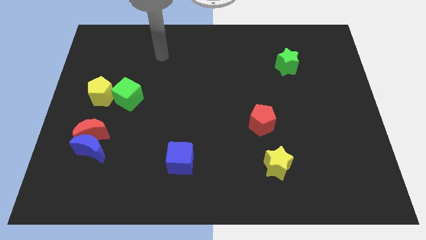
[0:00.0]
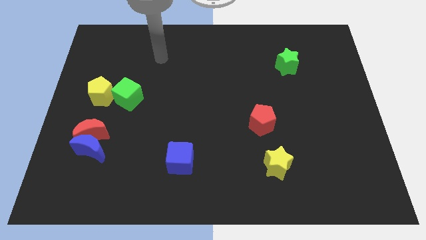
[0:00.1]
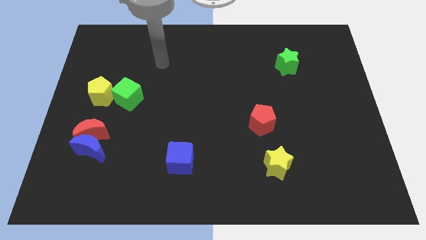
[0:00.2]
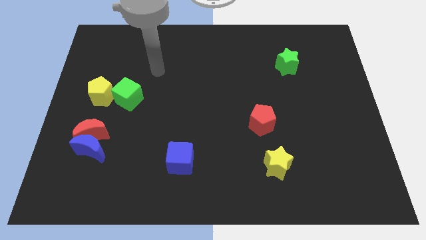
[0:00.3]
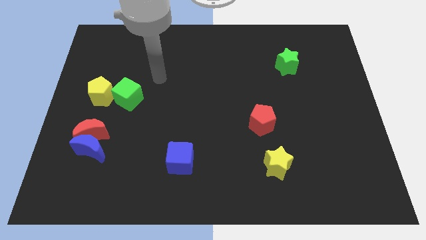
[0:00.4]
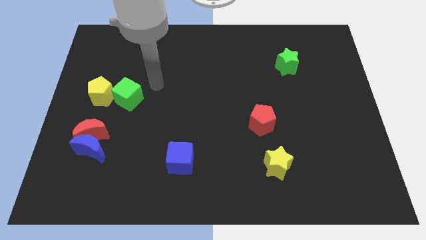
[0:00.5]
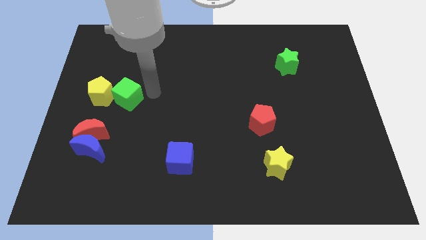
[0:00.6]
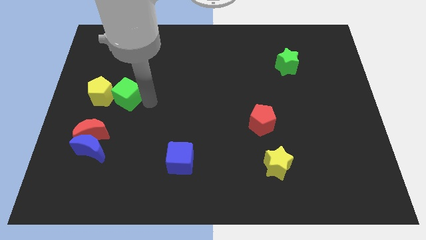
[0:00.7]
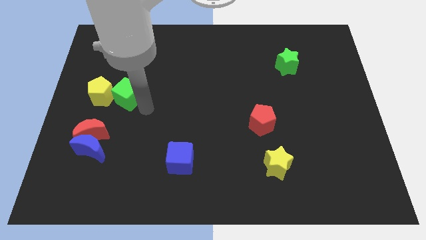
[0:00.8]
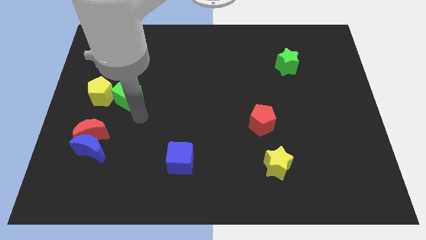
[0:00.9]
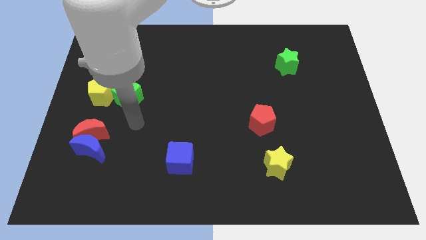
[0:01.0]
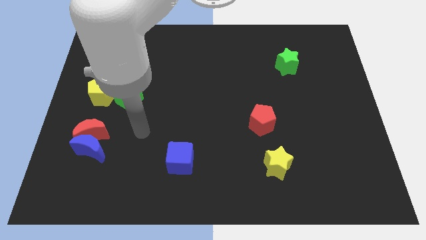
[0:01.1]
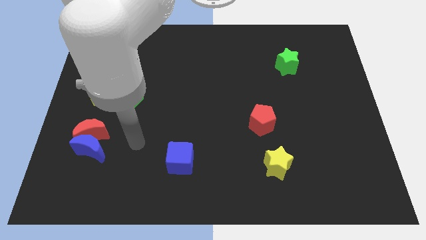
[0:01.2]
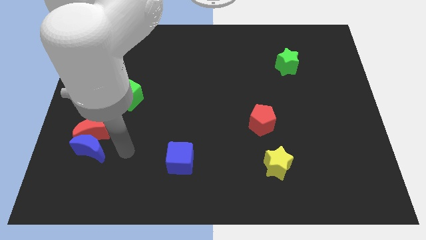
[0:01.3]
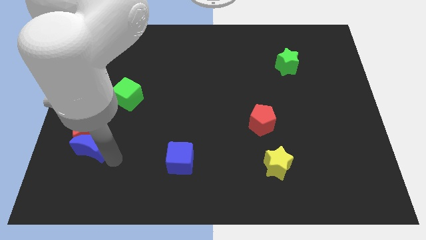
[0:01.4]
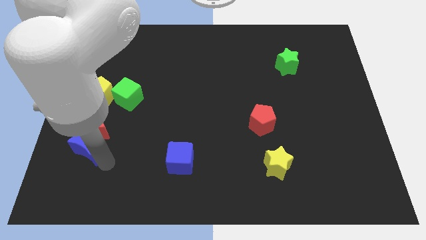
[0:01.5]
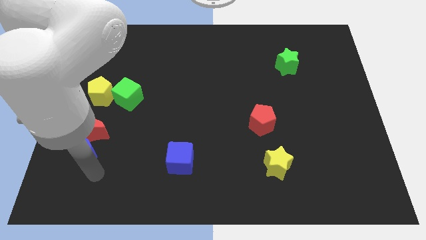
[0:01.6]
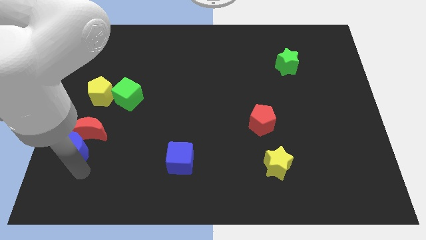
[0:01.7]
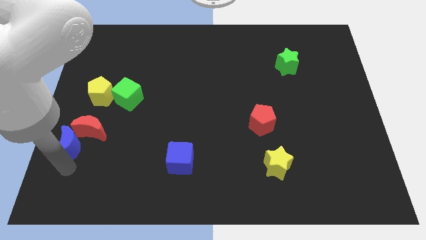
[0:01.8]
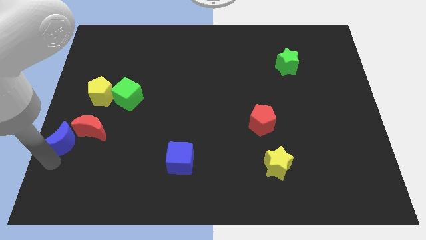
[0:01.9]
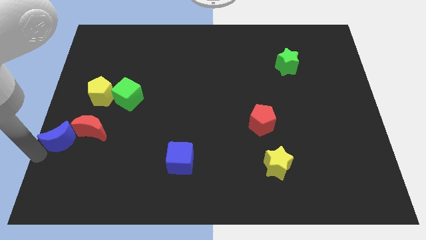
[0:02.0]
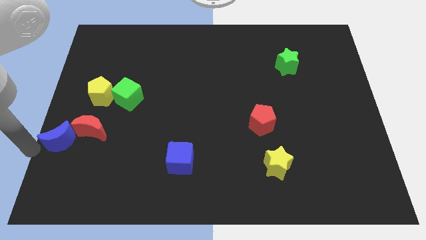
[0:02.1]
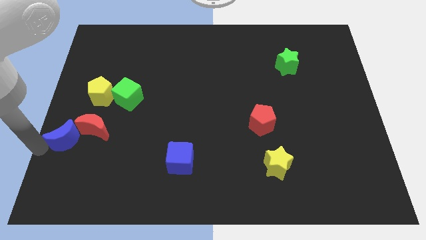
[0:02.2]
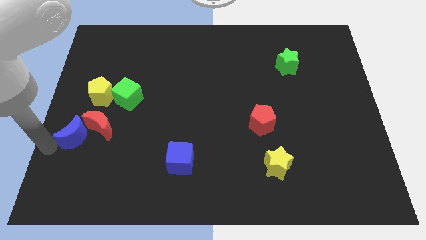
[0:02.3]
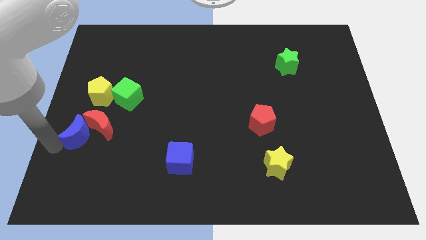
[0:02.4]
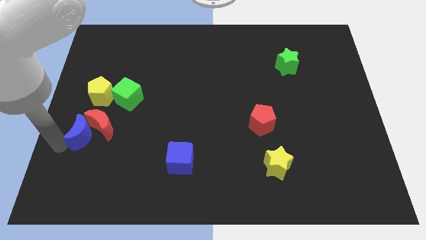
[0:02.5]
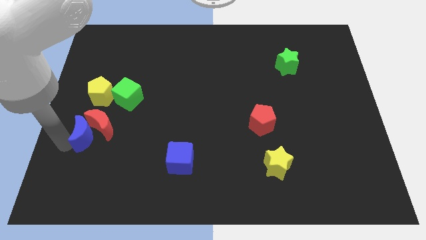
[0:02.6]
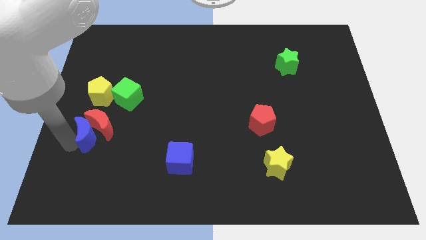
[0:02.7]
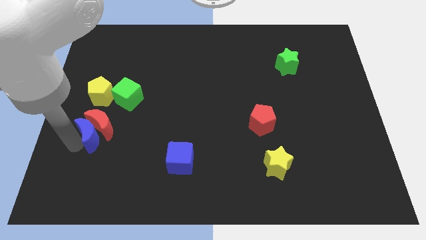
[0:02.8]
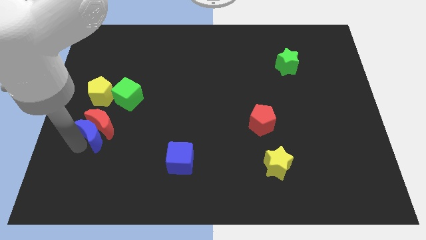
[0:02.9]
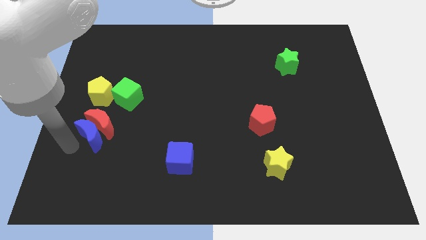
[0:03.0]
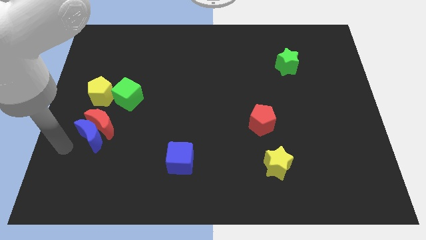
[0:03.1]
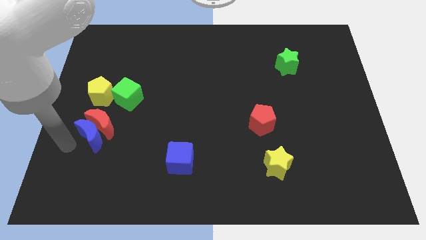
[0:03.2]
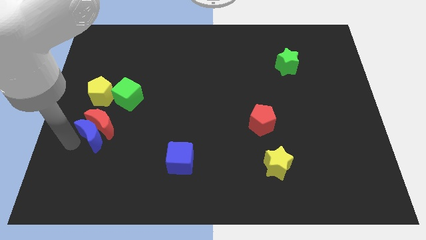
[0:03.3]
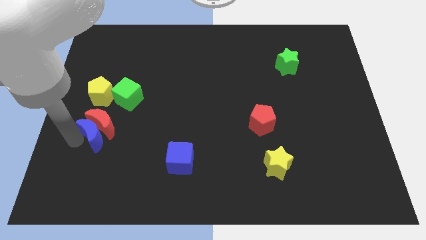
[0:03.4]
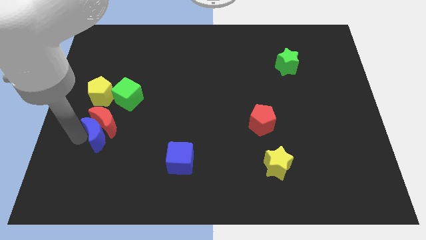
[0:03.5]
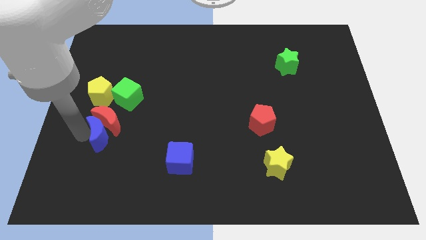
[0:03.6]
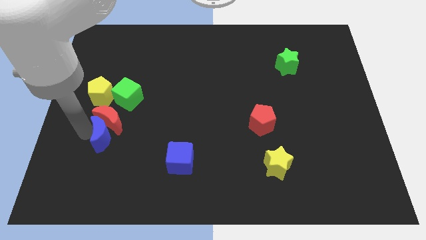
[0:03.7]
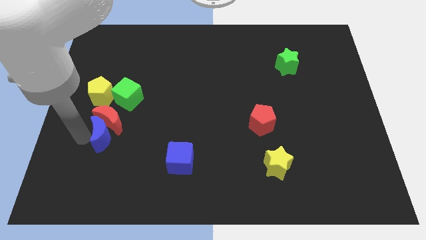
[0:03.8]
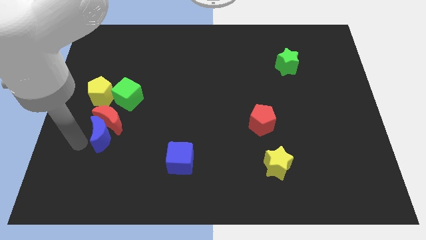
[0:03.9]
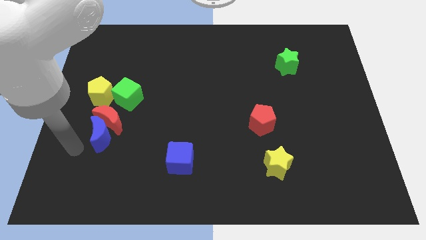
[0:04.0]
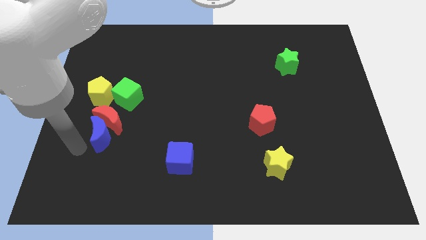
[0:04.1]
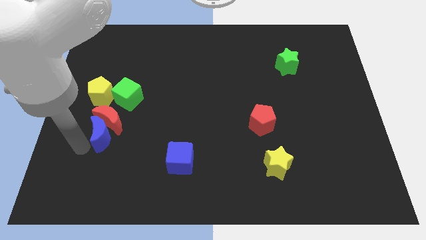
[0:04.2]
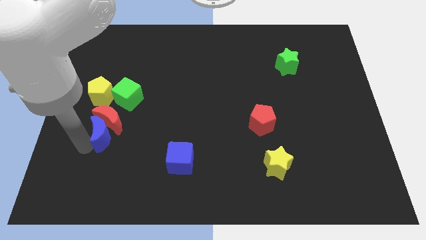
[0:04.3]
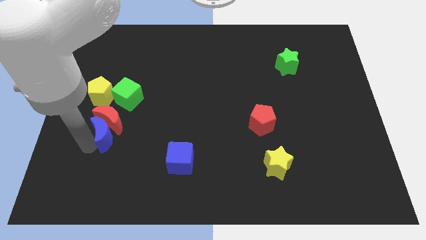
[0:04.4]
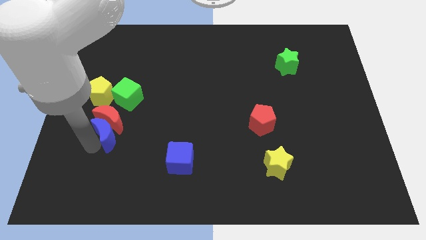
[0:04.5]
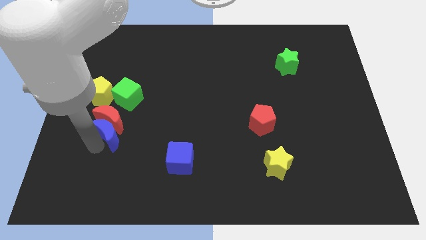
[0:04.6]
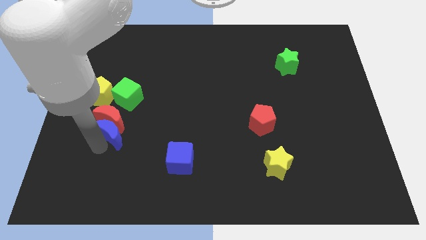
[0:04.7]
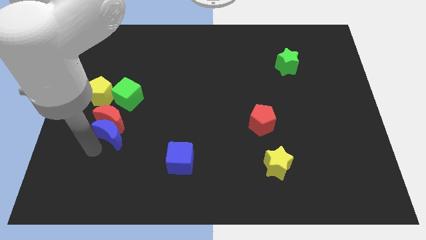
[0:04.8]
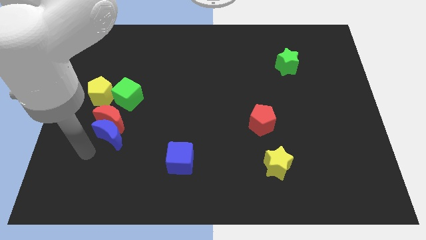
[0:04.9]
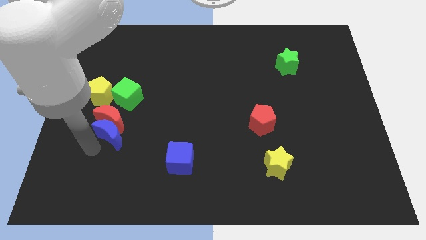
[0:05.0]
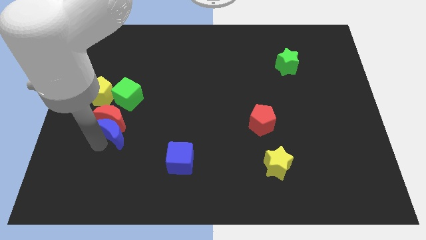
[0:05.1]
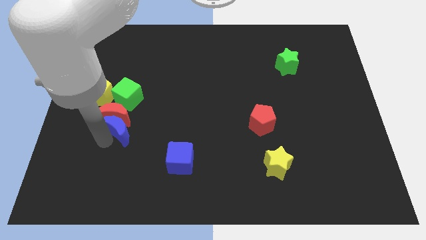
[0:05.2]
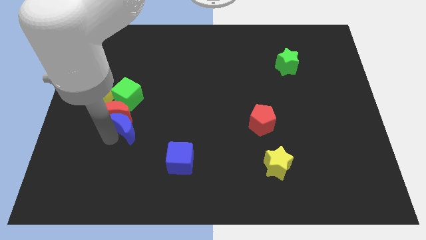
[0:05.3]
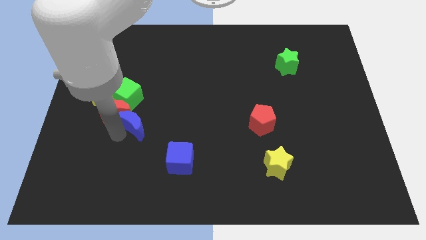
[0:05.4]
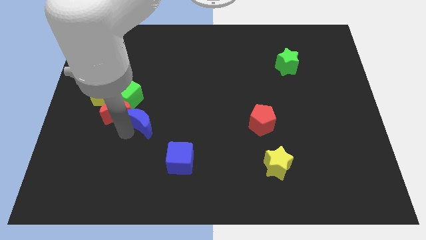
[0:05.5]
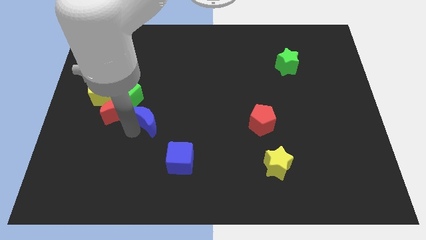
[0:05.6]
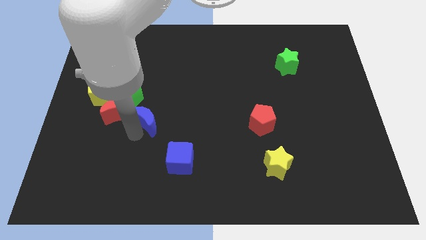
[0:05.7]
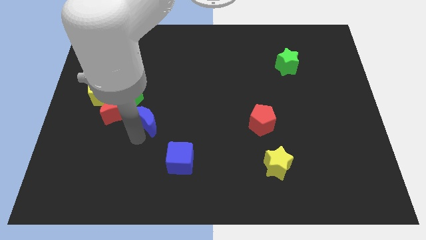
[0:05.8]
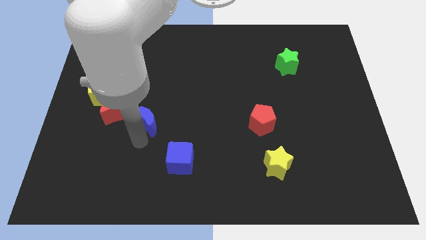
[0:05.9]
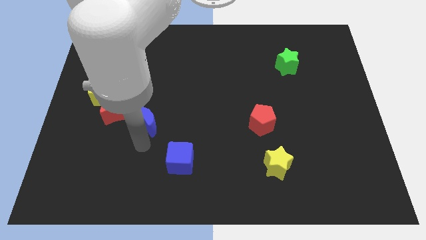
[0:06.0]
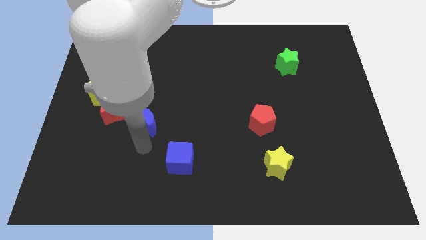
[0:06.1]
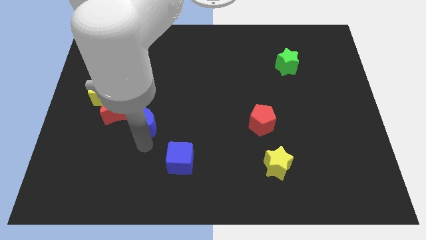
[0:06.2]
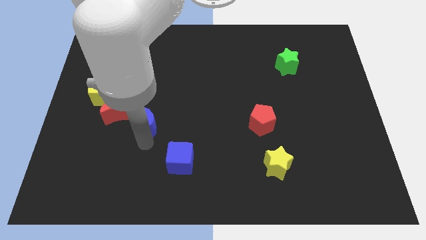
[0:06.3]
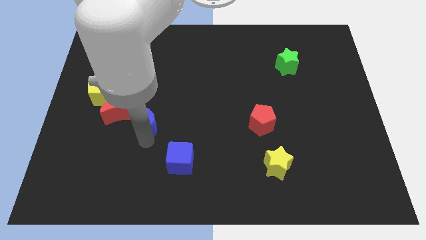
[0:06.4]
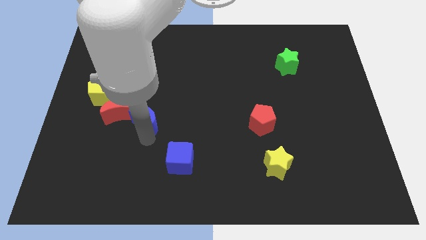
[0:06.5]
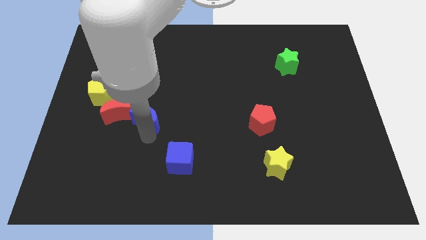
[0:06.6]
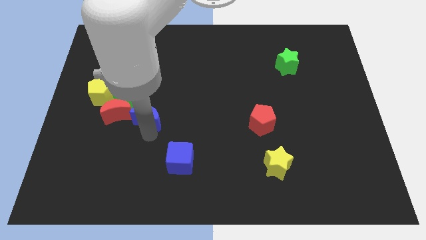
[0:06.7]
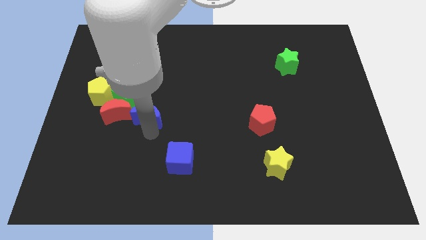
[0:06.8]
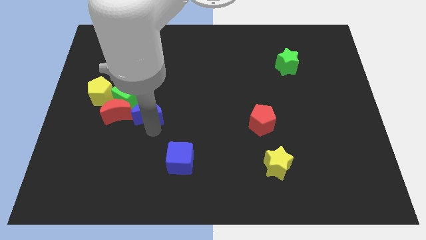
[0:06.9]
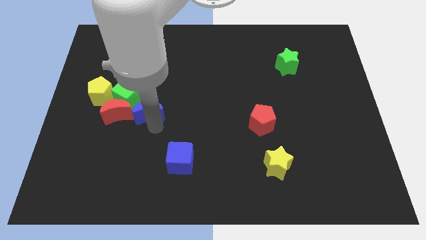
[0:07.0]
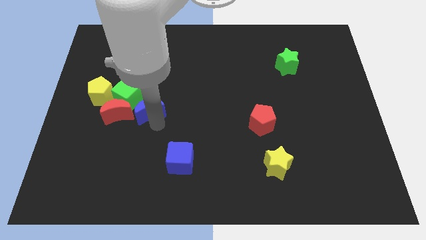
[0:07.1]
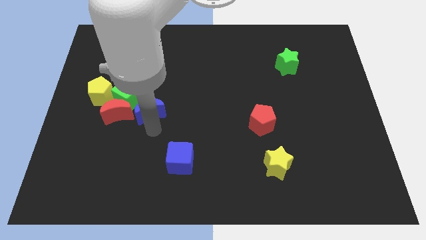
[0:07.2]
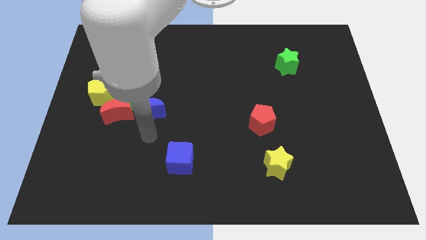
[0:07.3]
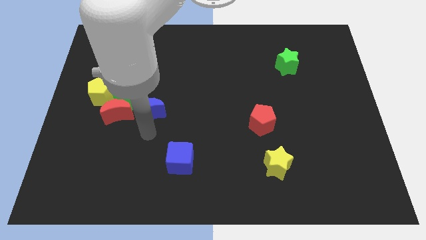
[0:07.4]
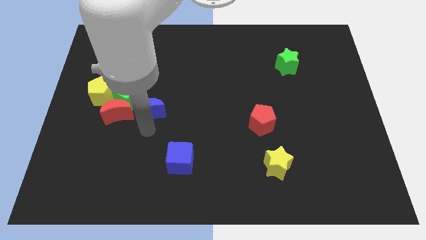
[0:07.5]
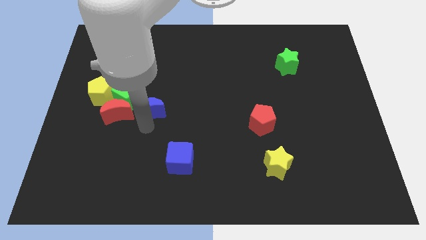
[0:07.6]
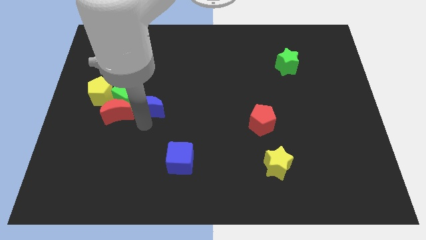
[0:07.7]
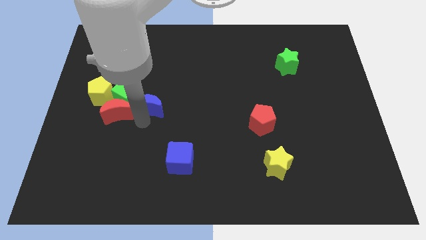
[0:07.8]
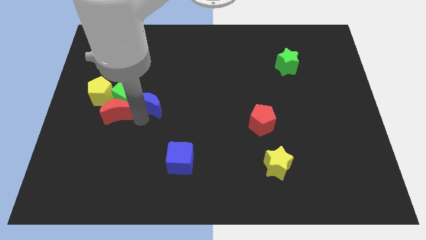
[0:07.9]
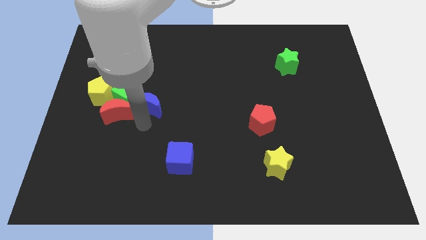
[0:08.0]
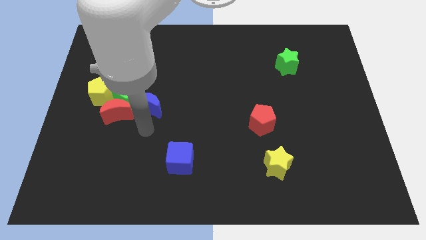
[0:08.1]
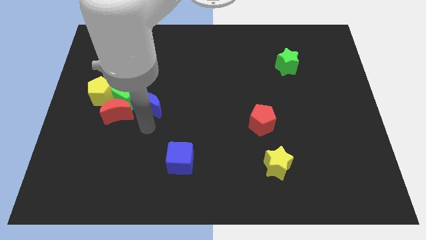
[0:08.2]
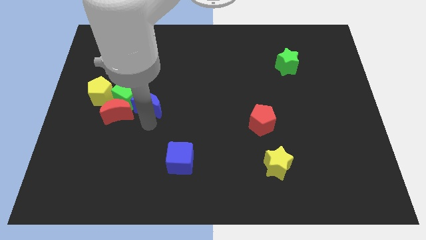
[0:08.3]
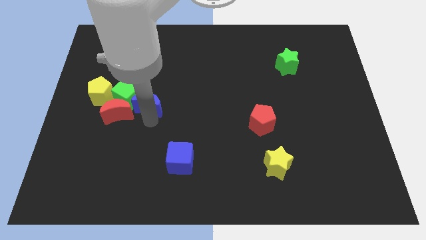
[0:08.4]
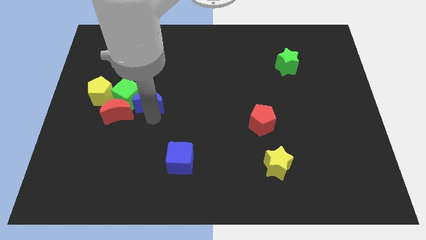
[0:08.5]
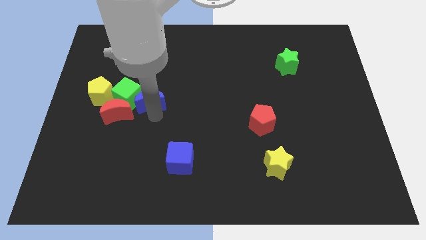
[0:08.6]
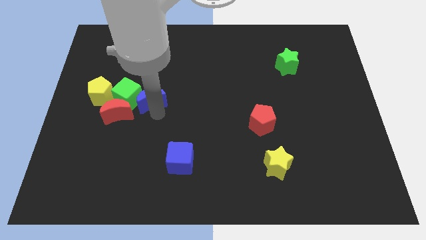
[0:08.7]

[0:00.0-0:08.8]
push the blue moon to the top right of the green cube
